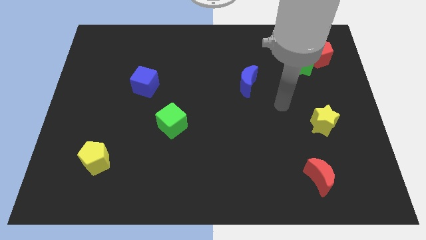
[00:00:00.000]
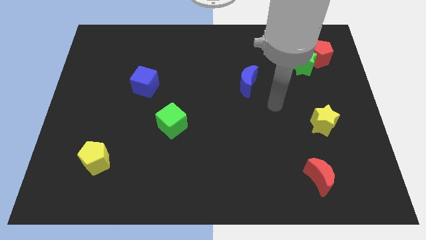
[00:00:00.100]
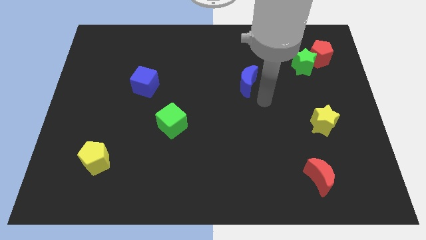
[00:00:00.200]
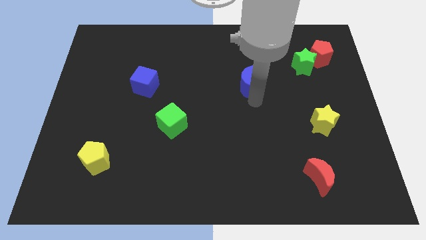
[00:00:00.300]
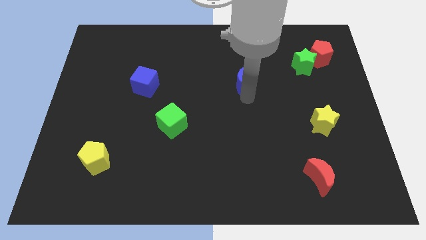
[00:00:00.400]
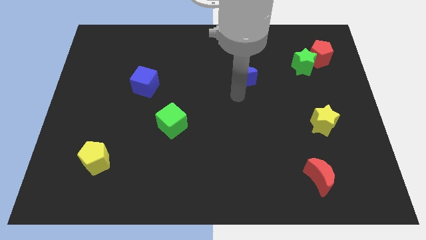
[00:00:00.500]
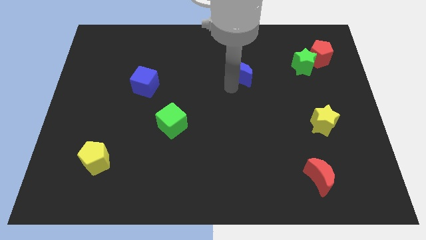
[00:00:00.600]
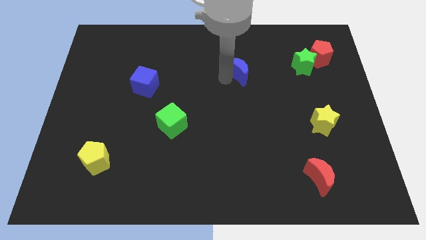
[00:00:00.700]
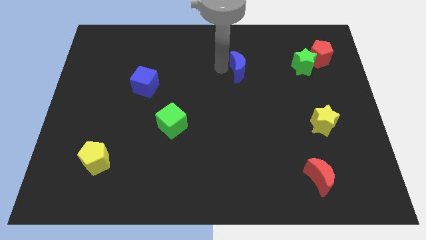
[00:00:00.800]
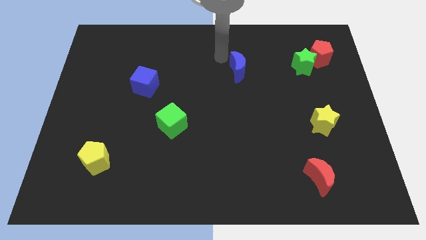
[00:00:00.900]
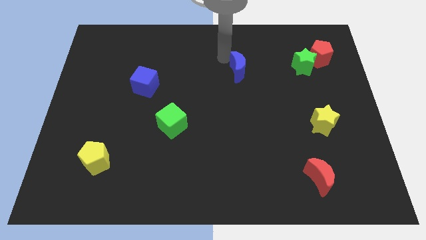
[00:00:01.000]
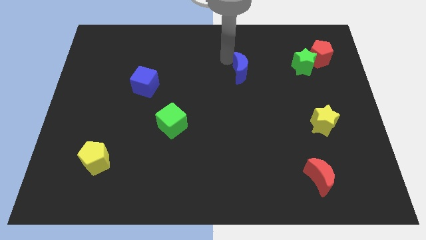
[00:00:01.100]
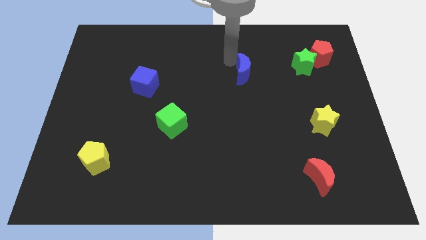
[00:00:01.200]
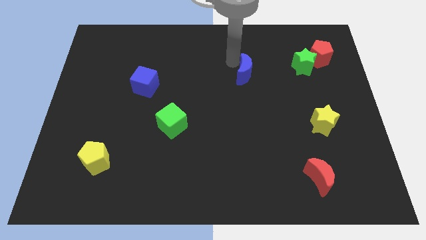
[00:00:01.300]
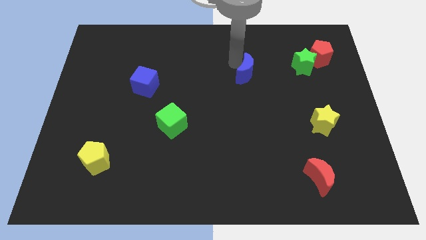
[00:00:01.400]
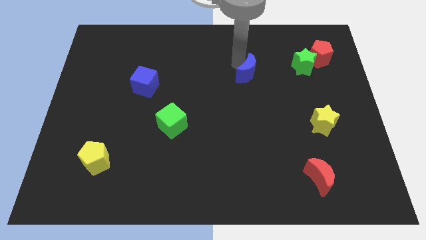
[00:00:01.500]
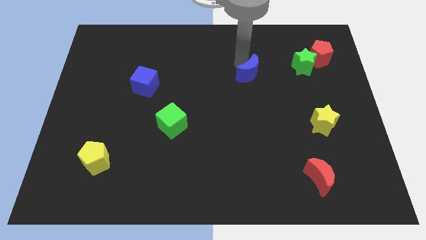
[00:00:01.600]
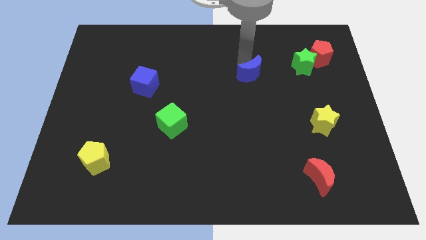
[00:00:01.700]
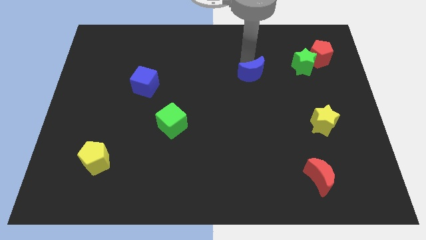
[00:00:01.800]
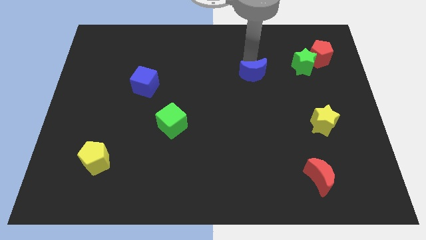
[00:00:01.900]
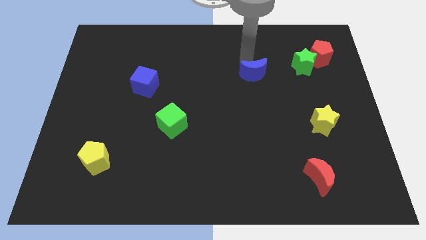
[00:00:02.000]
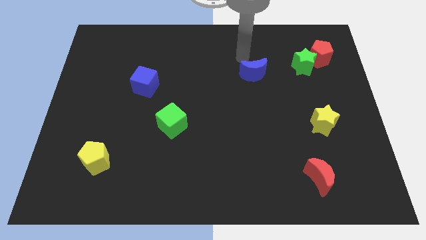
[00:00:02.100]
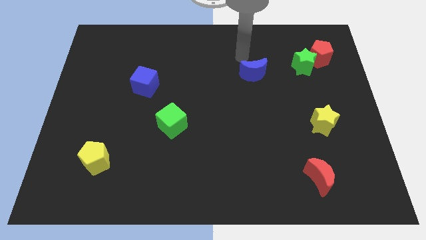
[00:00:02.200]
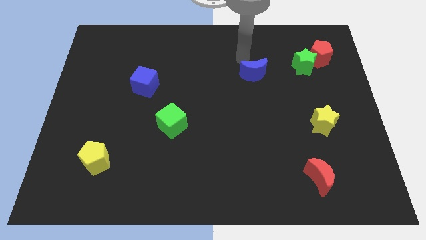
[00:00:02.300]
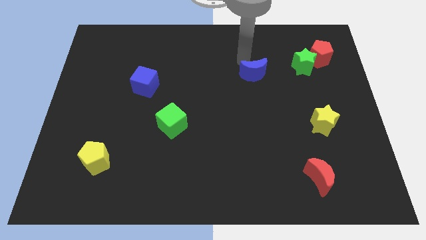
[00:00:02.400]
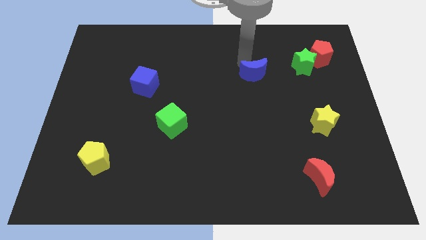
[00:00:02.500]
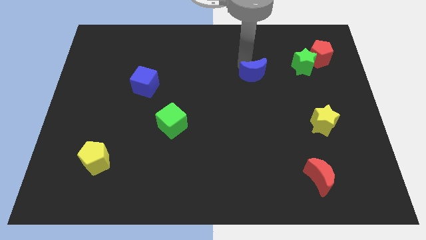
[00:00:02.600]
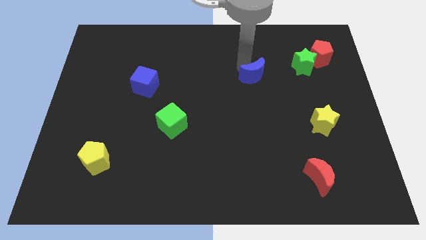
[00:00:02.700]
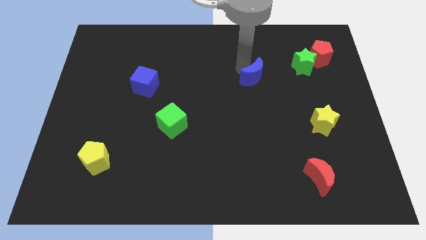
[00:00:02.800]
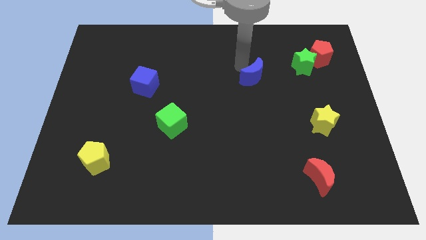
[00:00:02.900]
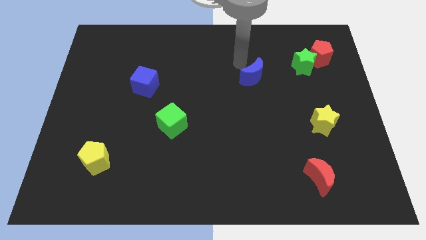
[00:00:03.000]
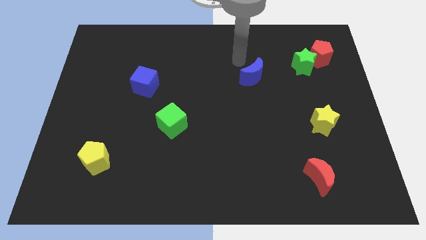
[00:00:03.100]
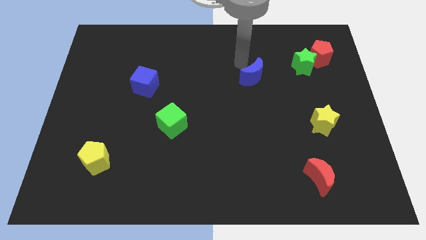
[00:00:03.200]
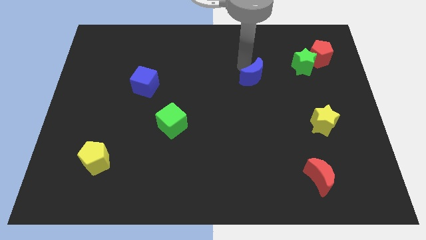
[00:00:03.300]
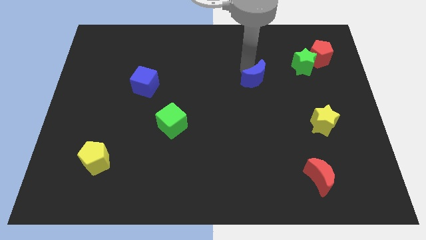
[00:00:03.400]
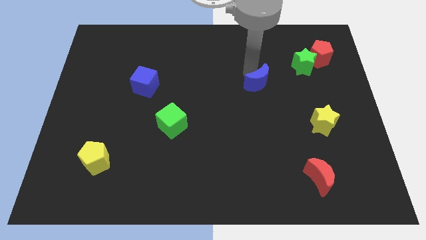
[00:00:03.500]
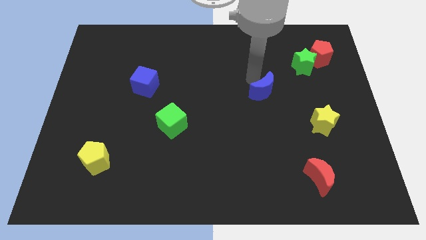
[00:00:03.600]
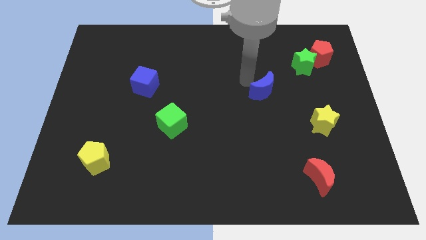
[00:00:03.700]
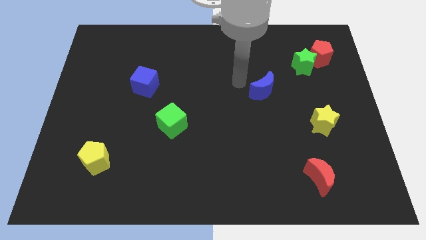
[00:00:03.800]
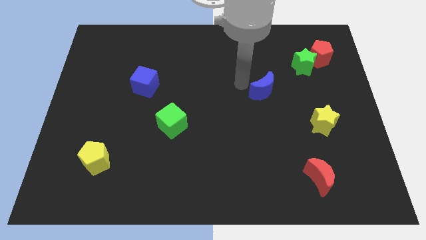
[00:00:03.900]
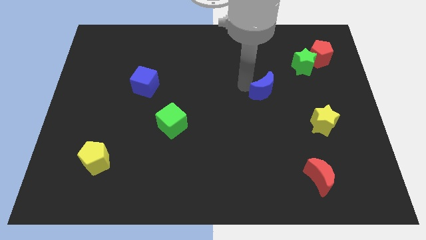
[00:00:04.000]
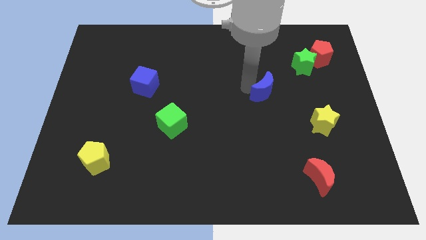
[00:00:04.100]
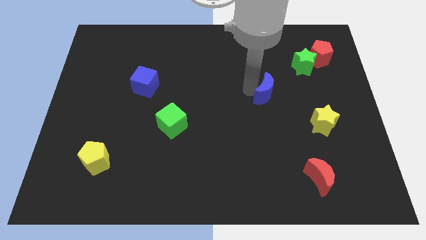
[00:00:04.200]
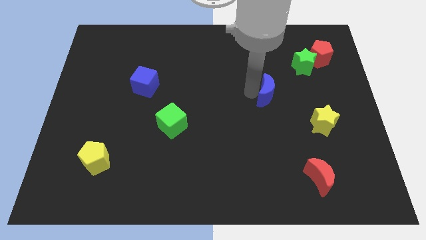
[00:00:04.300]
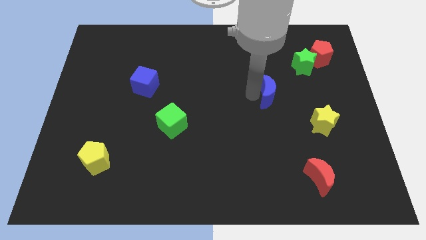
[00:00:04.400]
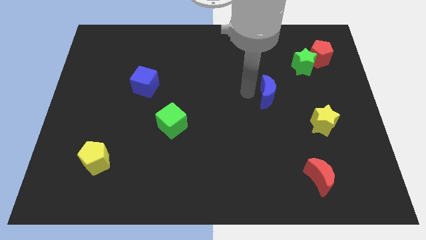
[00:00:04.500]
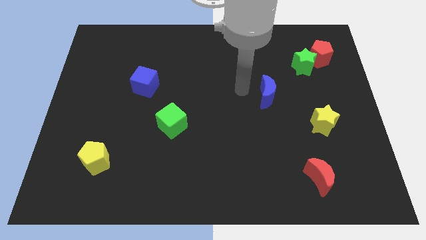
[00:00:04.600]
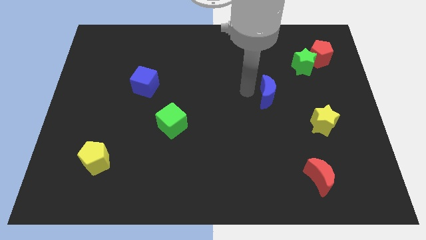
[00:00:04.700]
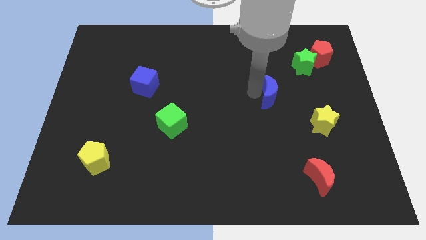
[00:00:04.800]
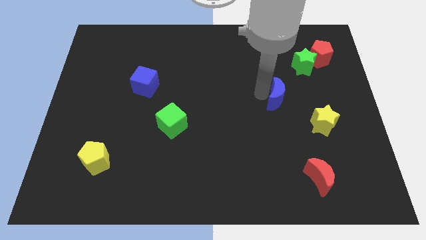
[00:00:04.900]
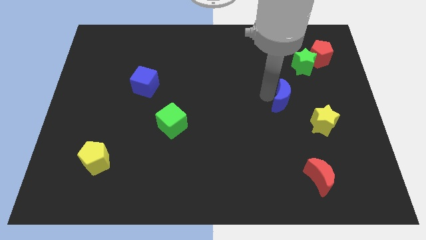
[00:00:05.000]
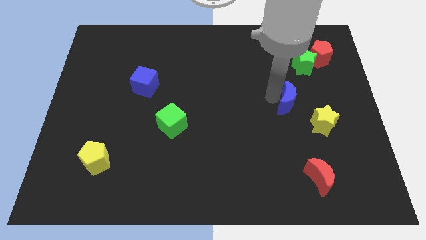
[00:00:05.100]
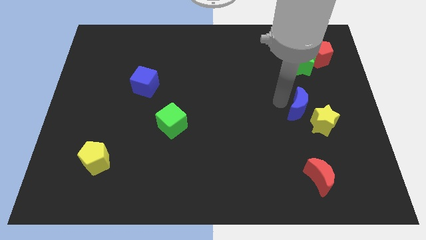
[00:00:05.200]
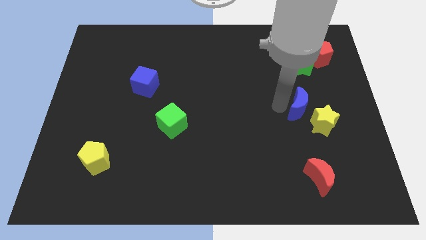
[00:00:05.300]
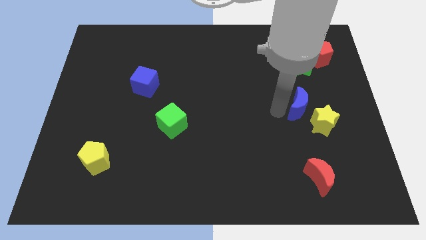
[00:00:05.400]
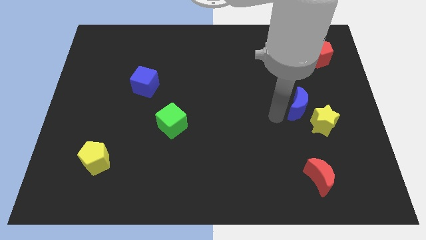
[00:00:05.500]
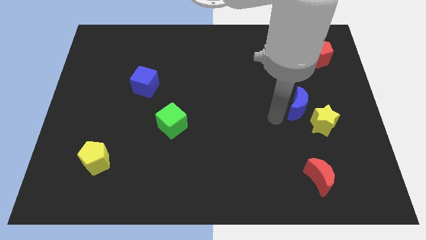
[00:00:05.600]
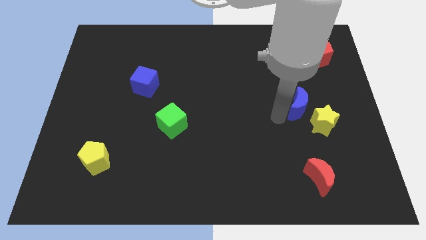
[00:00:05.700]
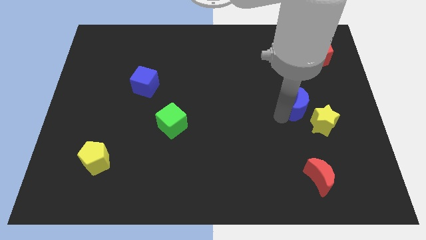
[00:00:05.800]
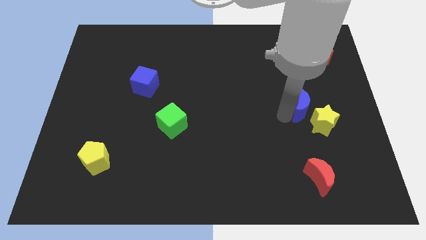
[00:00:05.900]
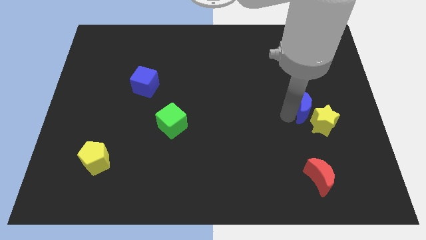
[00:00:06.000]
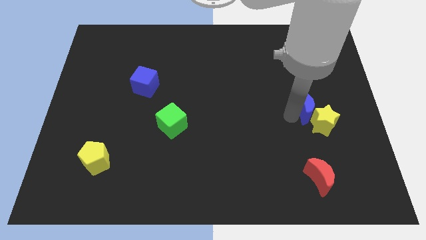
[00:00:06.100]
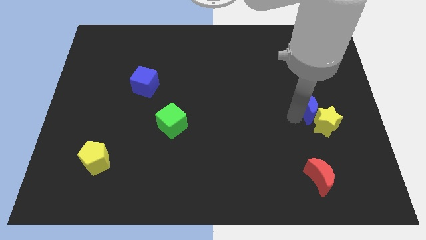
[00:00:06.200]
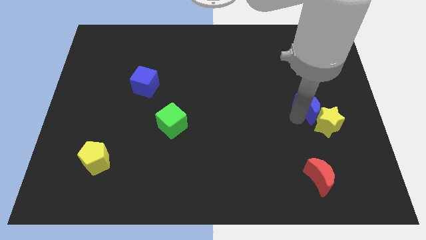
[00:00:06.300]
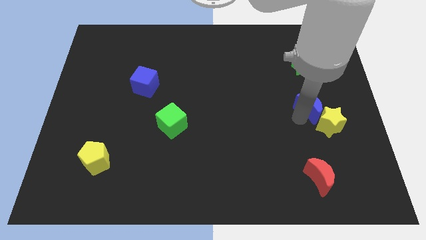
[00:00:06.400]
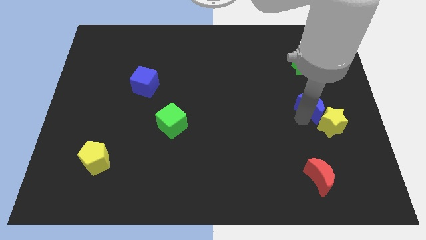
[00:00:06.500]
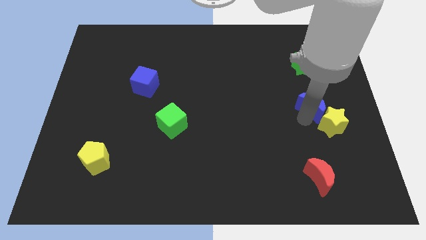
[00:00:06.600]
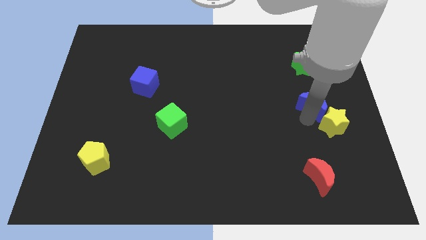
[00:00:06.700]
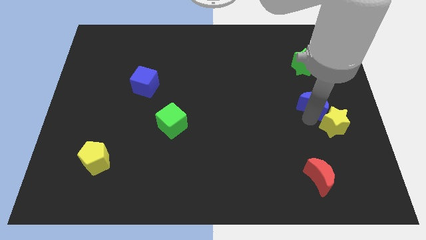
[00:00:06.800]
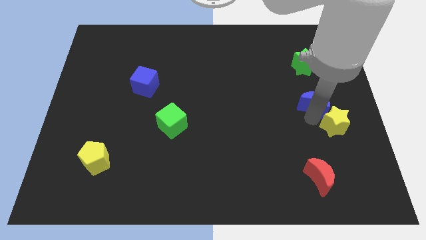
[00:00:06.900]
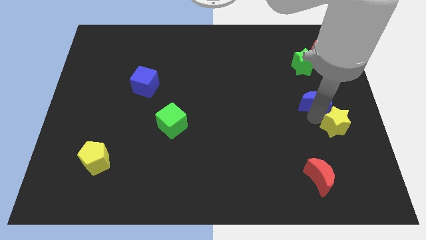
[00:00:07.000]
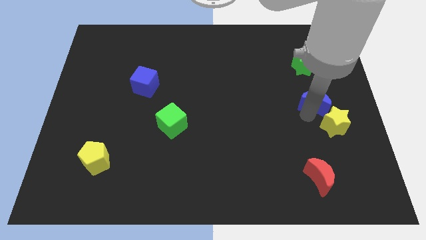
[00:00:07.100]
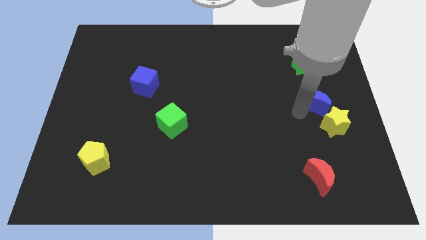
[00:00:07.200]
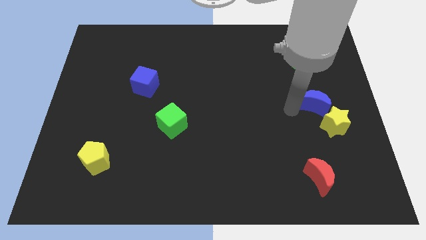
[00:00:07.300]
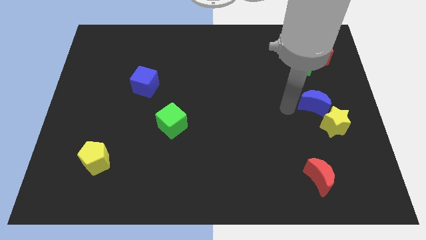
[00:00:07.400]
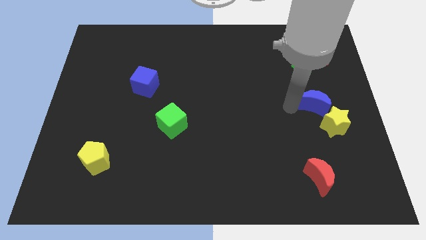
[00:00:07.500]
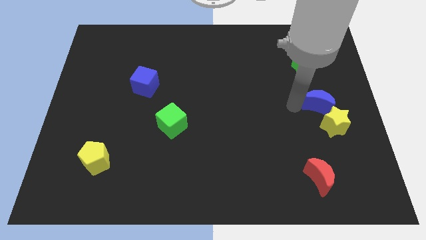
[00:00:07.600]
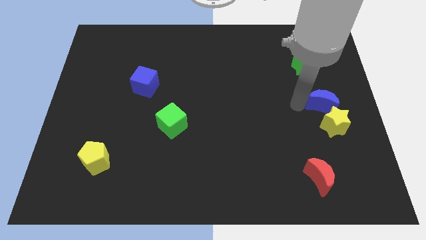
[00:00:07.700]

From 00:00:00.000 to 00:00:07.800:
push the blue moon to the center right
